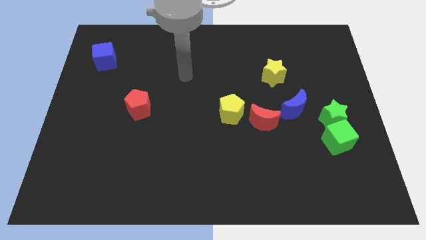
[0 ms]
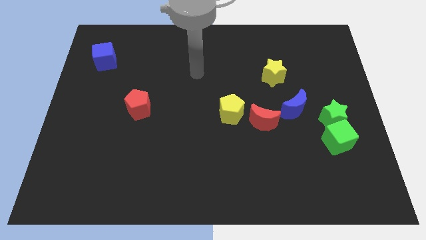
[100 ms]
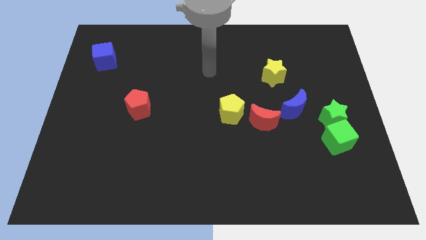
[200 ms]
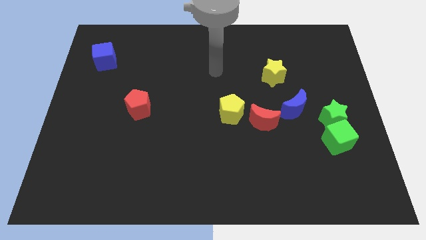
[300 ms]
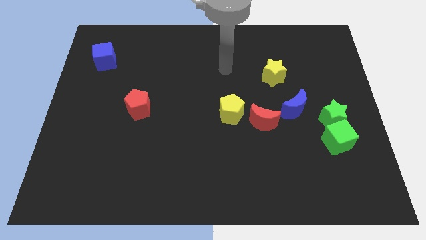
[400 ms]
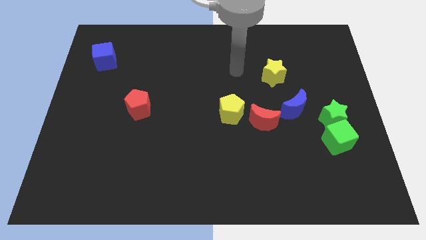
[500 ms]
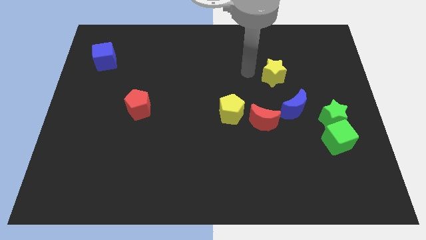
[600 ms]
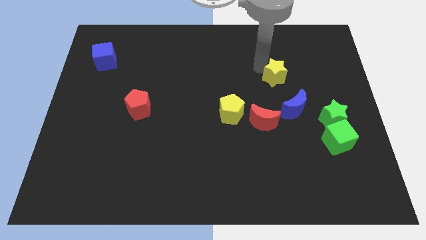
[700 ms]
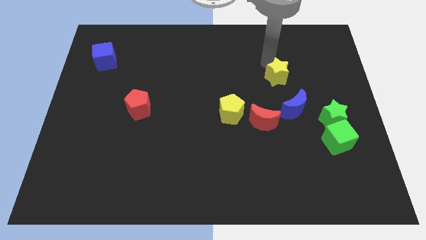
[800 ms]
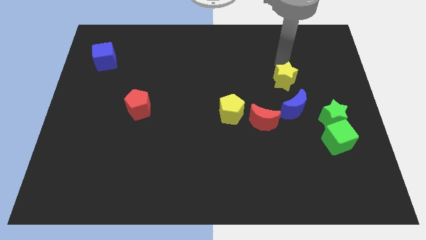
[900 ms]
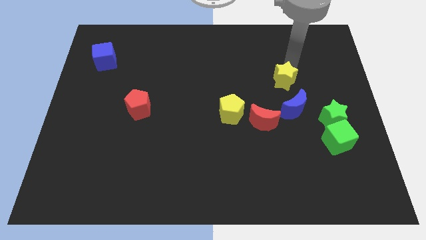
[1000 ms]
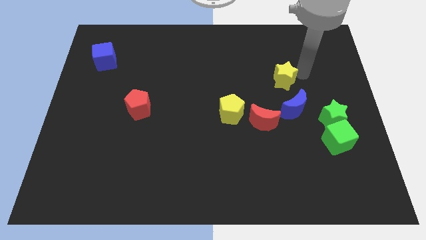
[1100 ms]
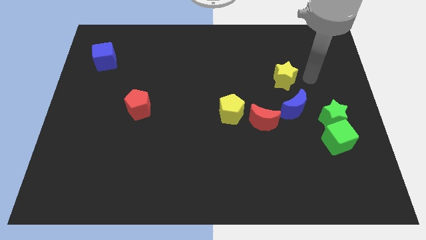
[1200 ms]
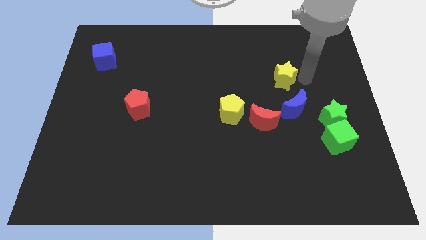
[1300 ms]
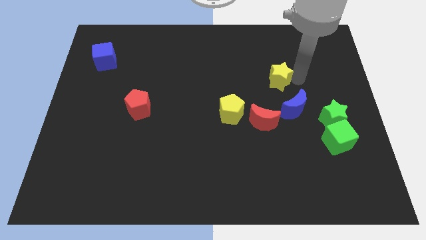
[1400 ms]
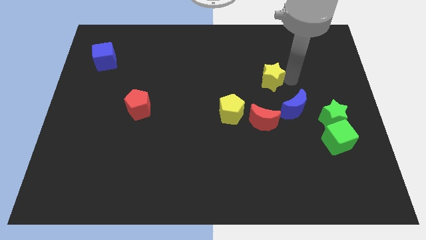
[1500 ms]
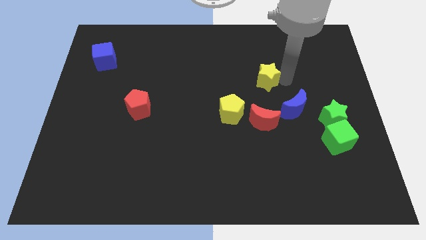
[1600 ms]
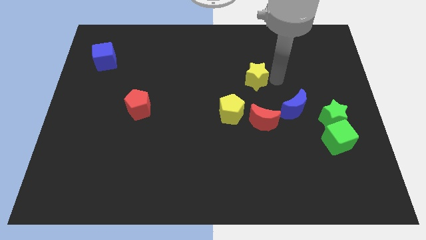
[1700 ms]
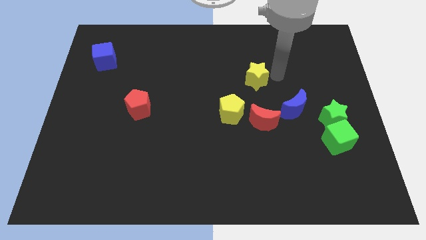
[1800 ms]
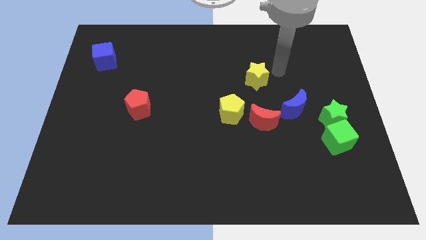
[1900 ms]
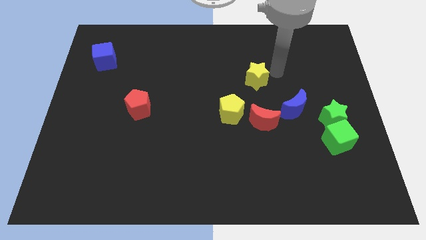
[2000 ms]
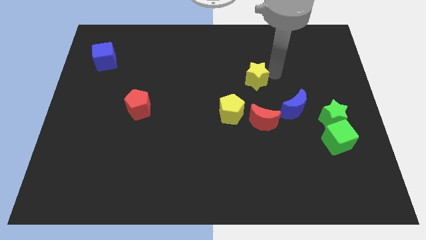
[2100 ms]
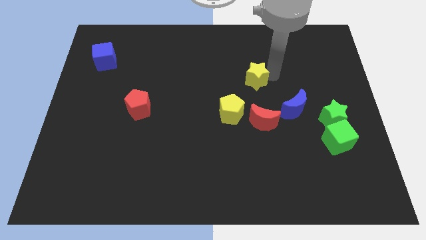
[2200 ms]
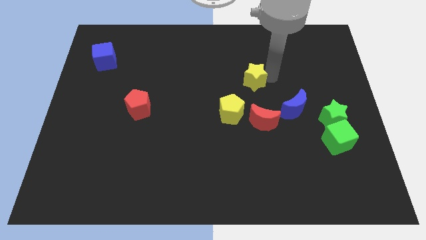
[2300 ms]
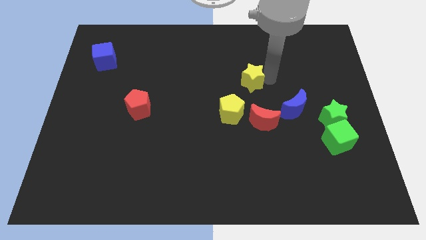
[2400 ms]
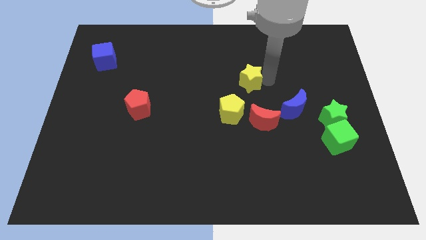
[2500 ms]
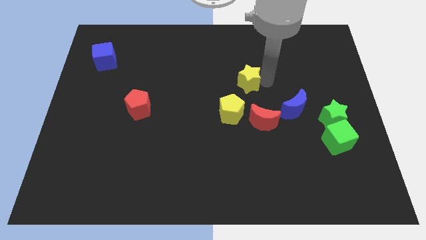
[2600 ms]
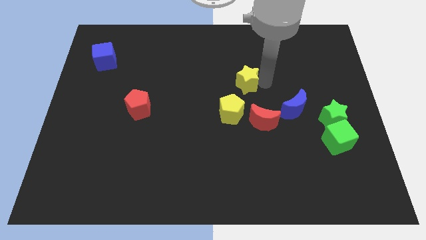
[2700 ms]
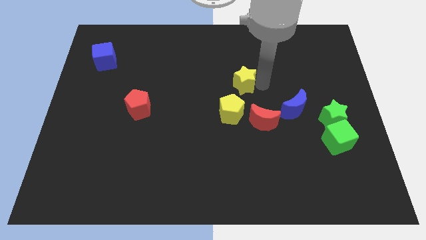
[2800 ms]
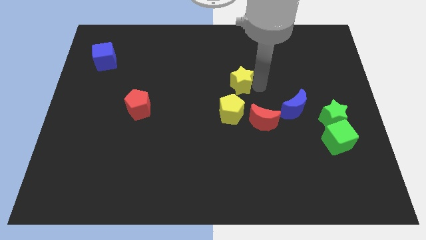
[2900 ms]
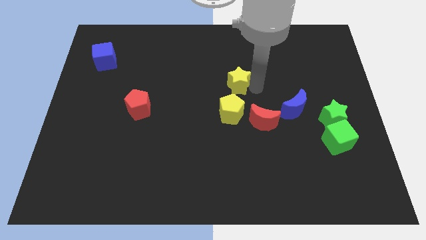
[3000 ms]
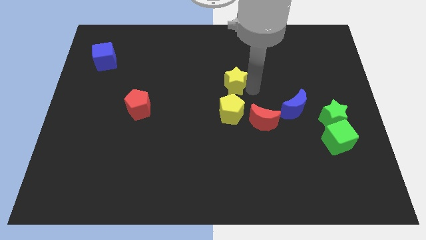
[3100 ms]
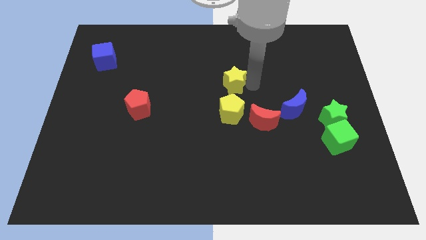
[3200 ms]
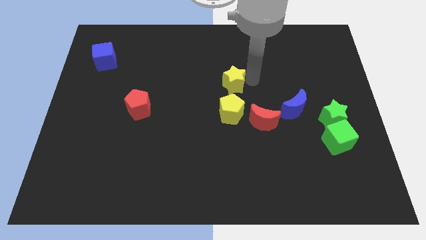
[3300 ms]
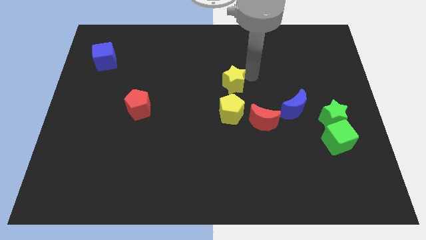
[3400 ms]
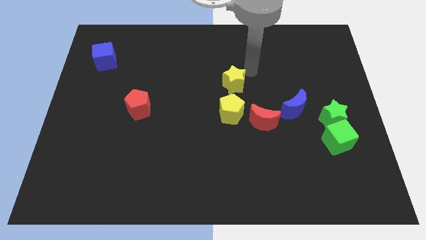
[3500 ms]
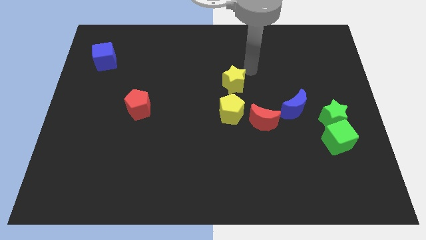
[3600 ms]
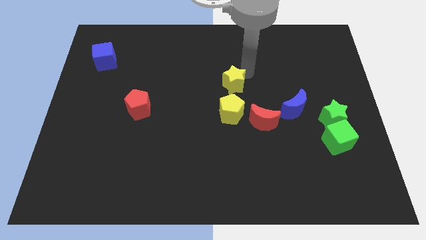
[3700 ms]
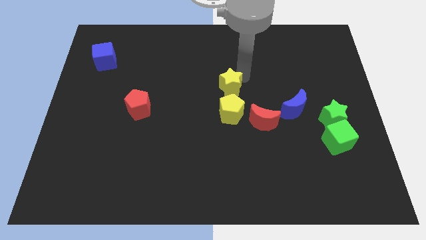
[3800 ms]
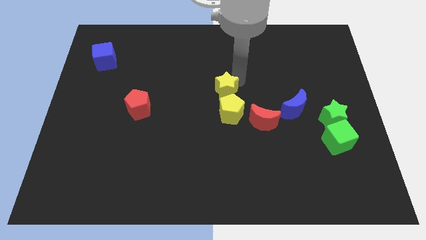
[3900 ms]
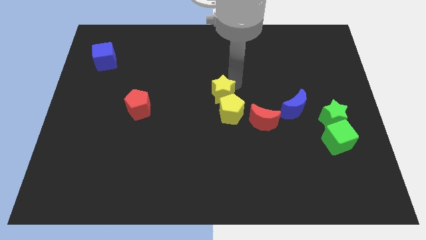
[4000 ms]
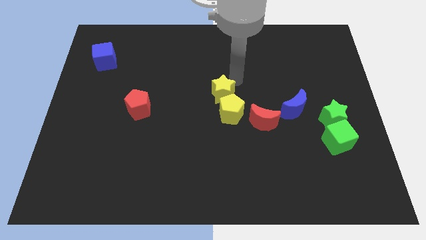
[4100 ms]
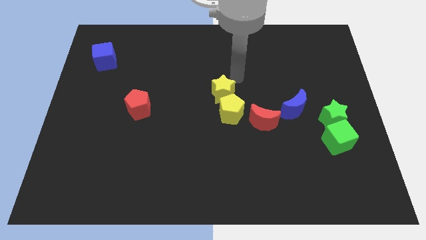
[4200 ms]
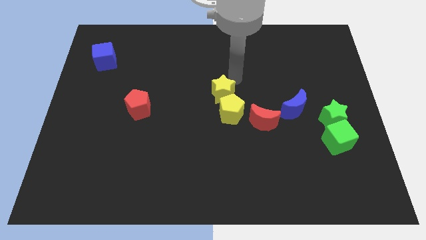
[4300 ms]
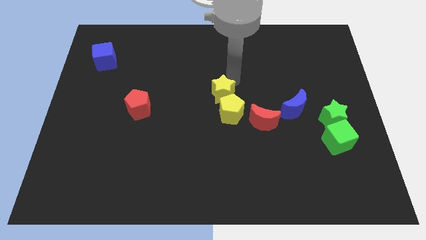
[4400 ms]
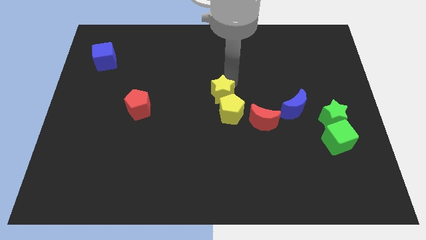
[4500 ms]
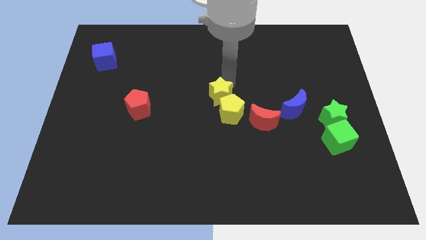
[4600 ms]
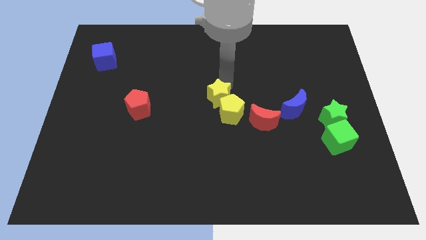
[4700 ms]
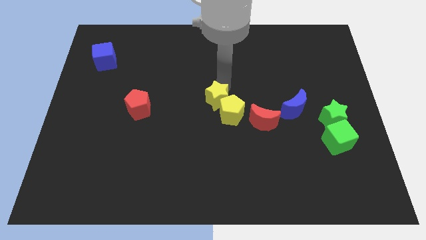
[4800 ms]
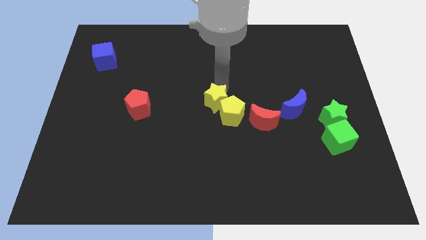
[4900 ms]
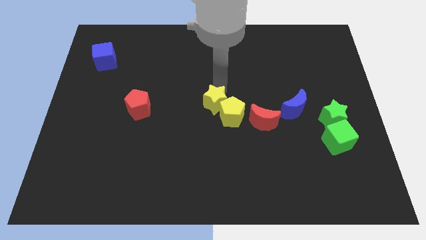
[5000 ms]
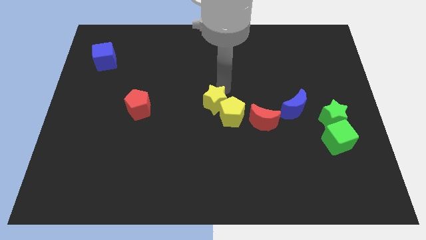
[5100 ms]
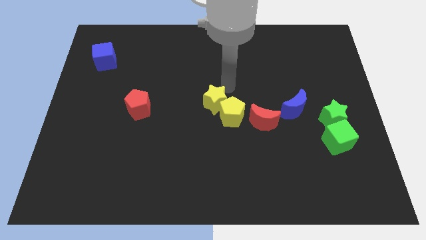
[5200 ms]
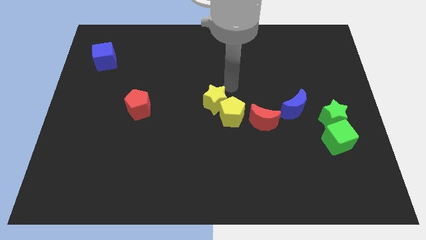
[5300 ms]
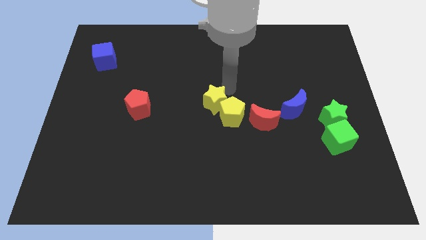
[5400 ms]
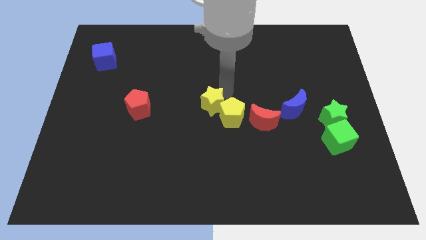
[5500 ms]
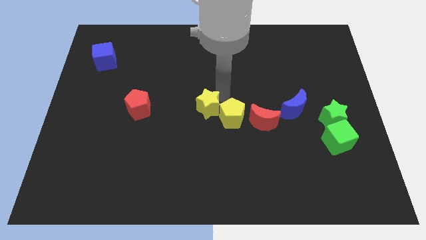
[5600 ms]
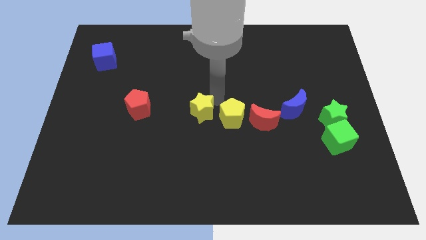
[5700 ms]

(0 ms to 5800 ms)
slide the yellow star downwards and to the left diagonally

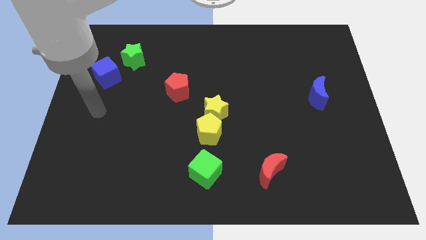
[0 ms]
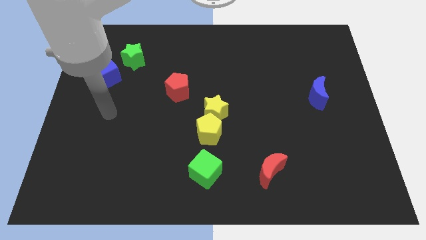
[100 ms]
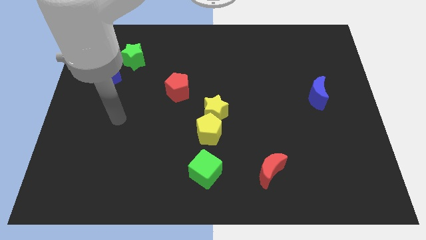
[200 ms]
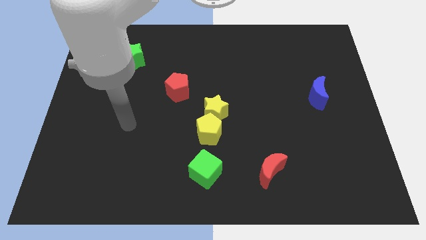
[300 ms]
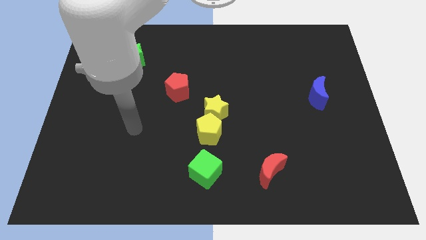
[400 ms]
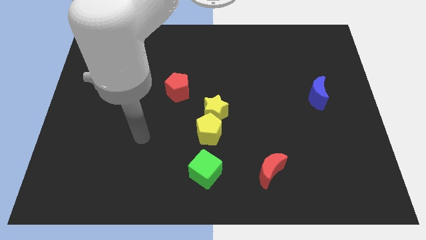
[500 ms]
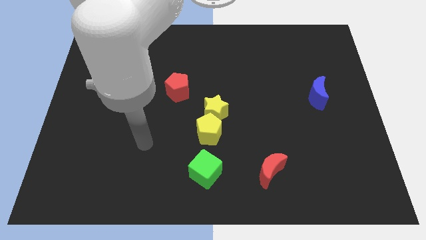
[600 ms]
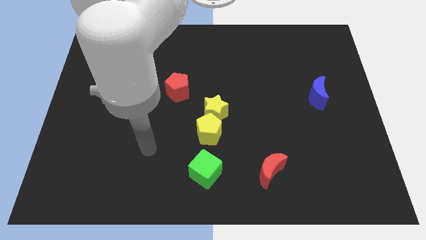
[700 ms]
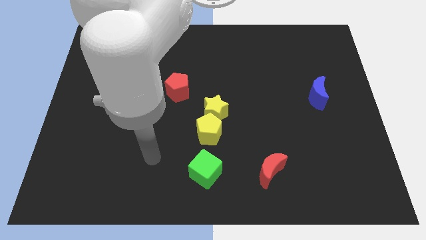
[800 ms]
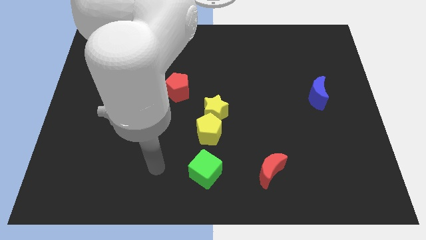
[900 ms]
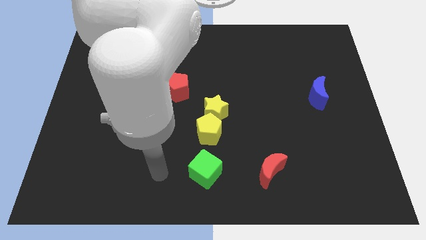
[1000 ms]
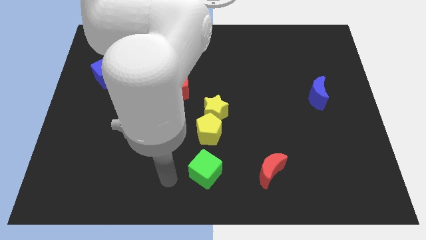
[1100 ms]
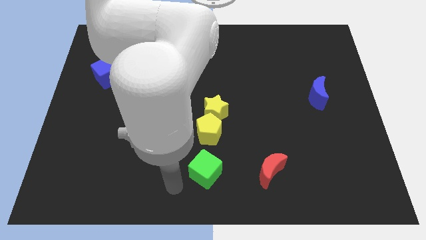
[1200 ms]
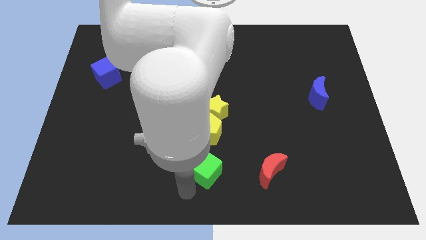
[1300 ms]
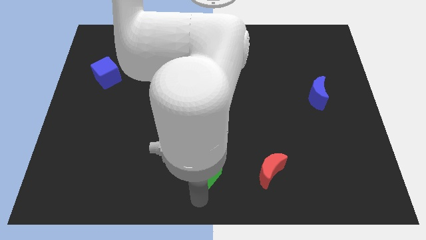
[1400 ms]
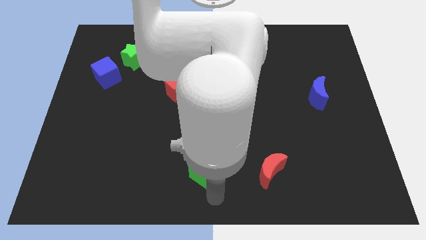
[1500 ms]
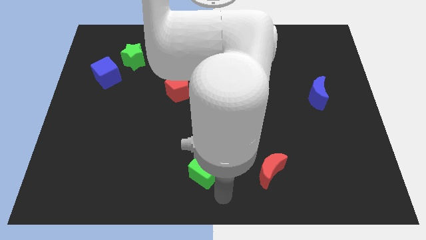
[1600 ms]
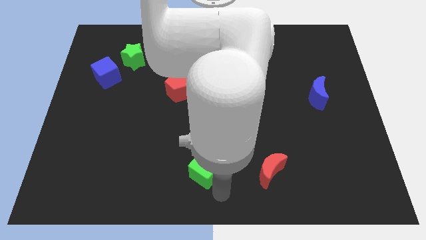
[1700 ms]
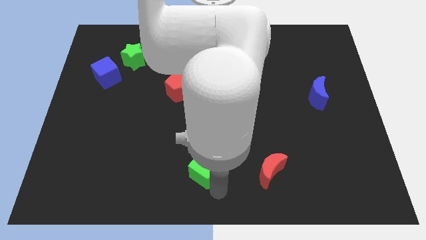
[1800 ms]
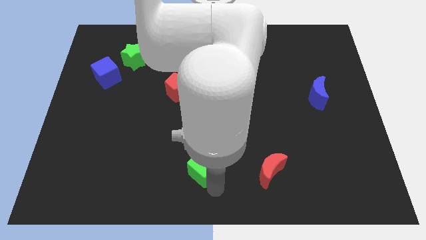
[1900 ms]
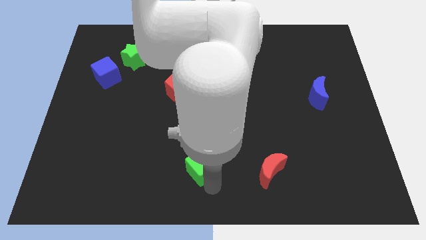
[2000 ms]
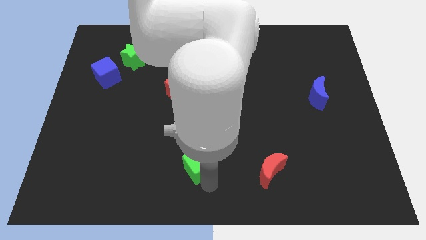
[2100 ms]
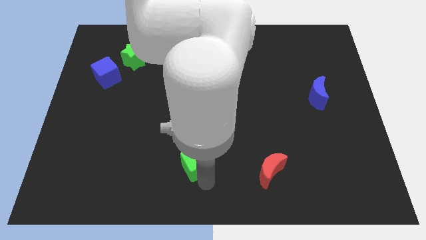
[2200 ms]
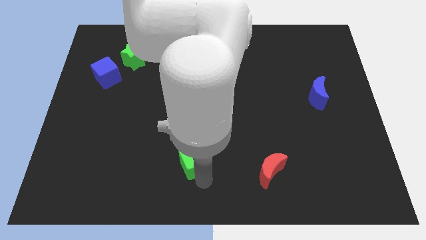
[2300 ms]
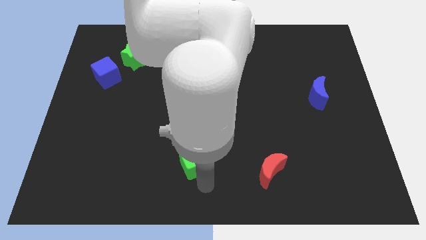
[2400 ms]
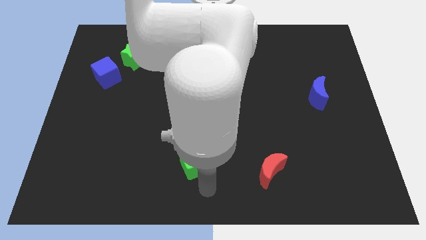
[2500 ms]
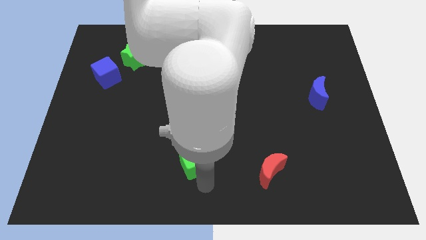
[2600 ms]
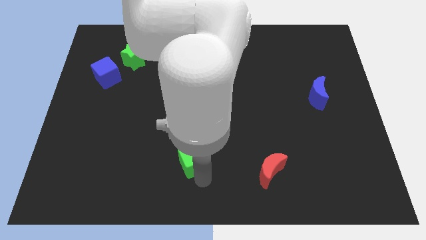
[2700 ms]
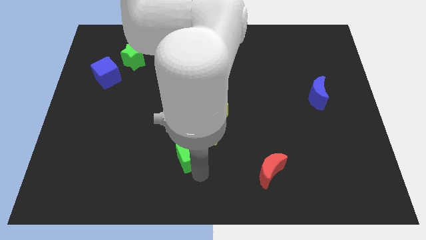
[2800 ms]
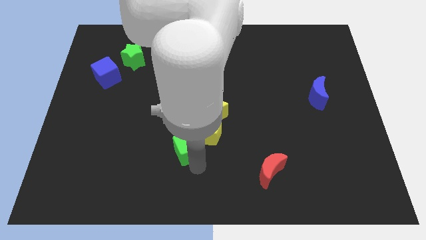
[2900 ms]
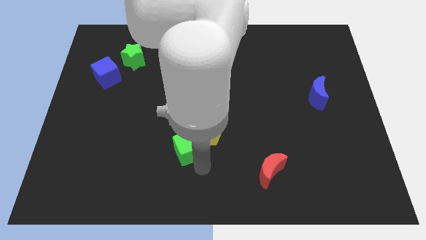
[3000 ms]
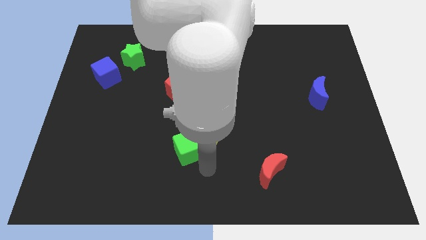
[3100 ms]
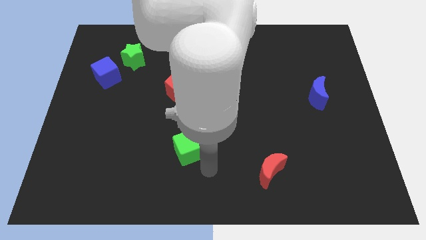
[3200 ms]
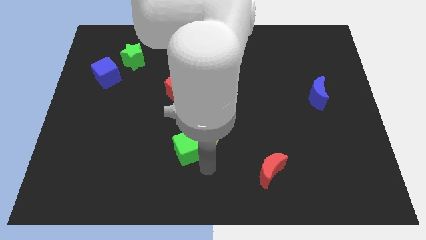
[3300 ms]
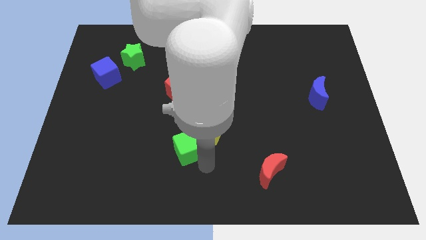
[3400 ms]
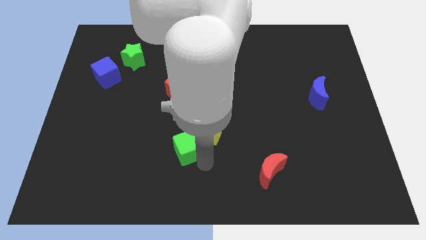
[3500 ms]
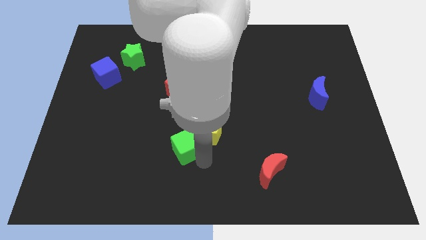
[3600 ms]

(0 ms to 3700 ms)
slide the green cube a little upwards and to the left
